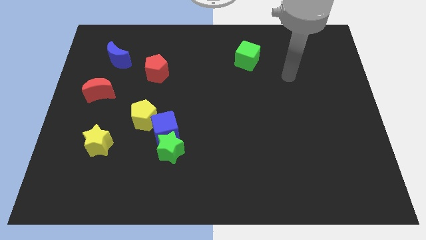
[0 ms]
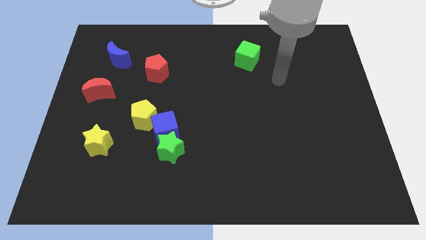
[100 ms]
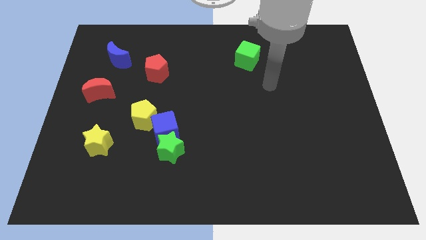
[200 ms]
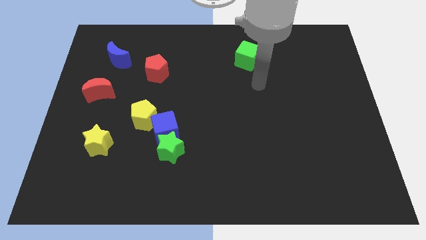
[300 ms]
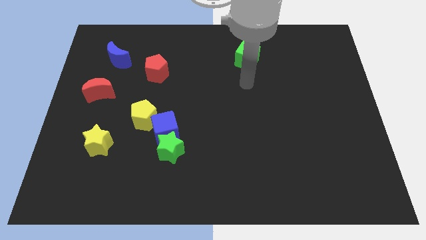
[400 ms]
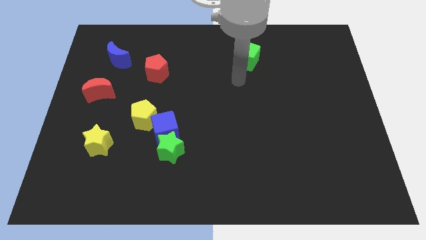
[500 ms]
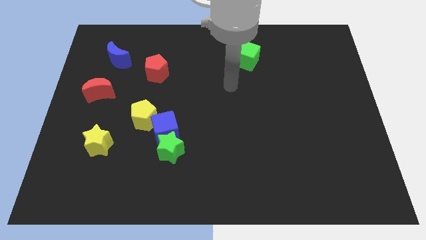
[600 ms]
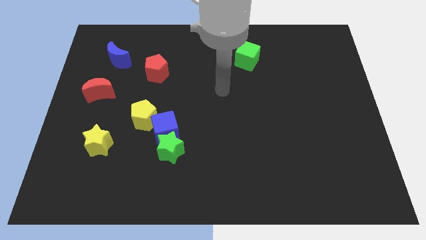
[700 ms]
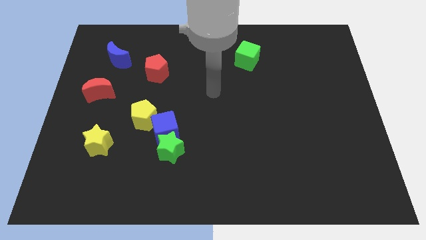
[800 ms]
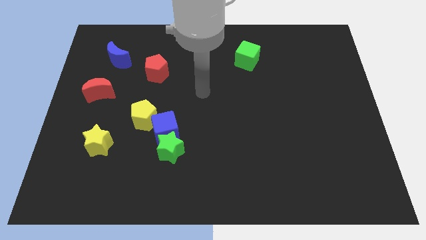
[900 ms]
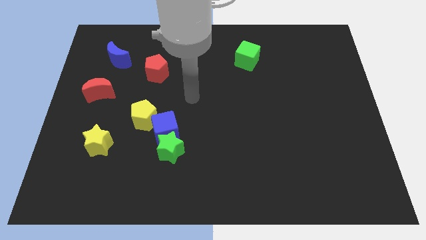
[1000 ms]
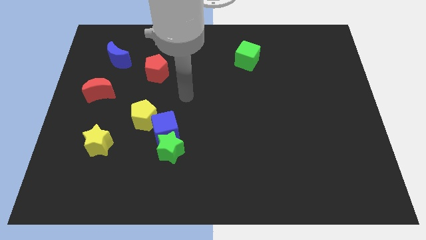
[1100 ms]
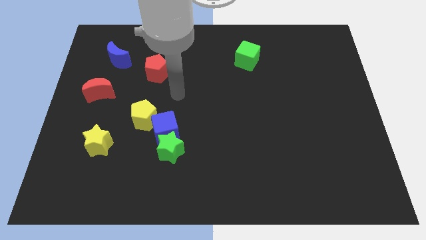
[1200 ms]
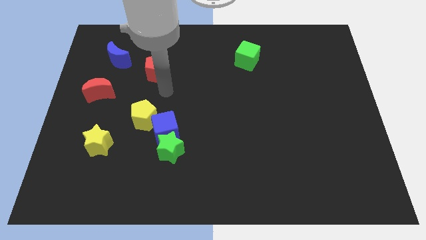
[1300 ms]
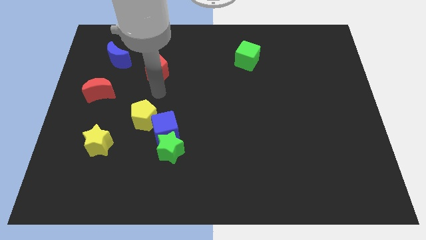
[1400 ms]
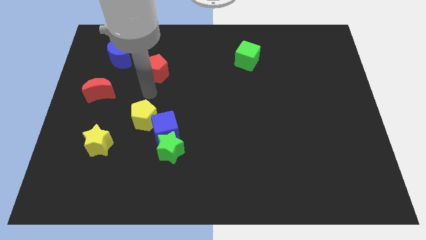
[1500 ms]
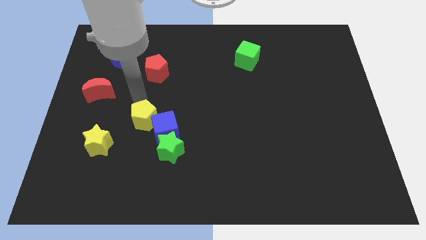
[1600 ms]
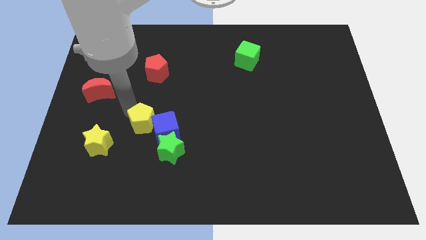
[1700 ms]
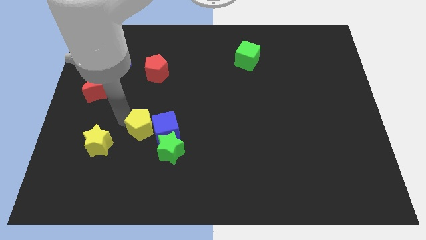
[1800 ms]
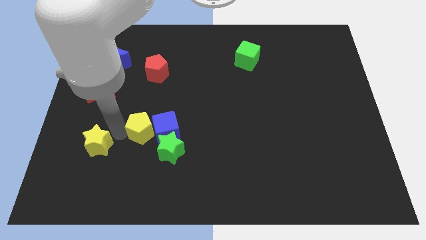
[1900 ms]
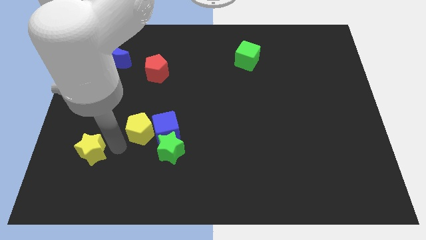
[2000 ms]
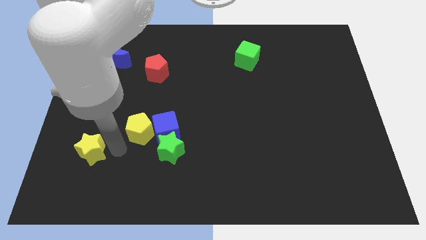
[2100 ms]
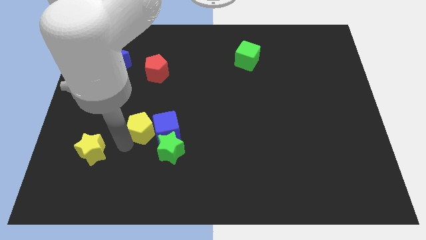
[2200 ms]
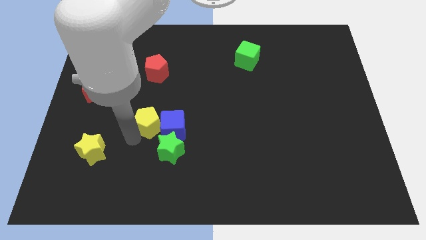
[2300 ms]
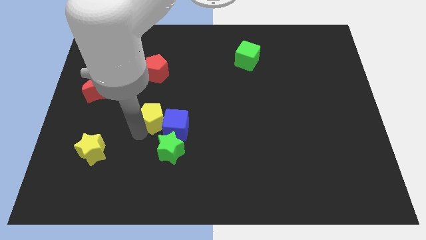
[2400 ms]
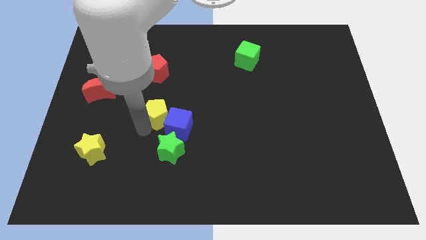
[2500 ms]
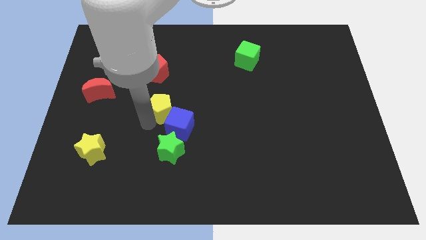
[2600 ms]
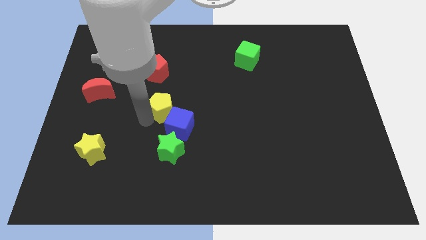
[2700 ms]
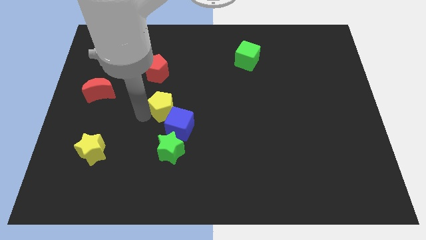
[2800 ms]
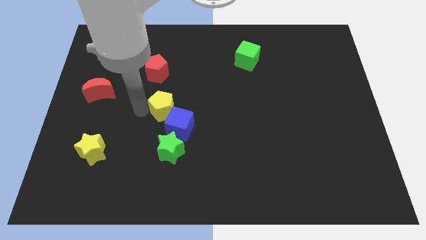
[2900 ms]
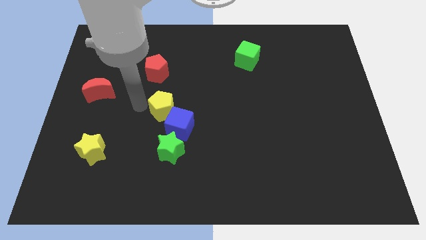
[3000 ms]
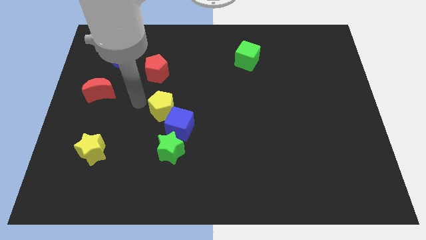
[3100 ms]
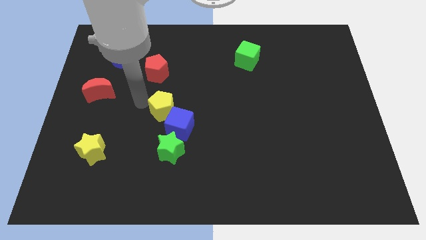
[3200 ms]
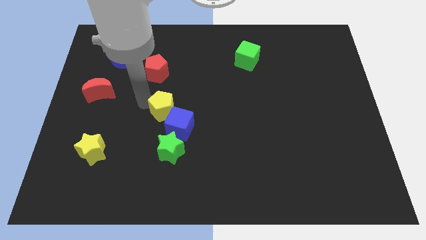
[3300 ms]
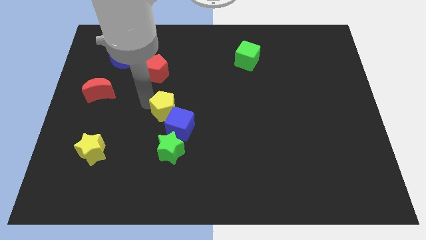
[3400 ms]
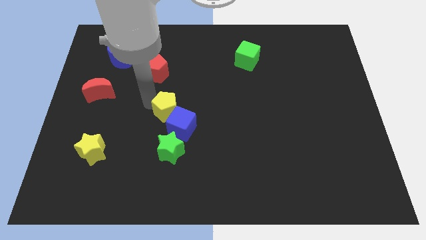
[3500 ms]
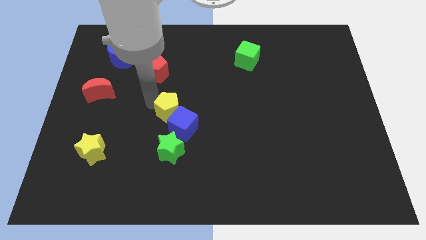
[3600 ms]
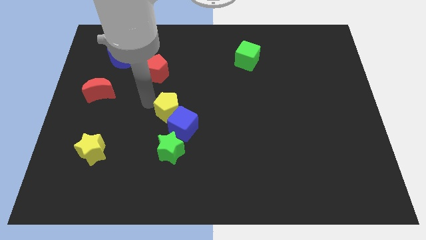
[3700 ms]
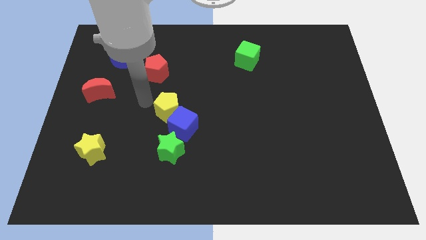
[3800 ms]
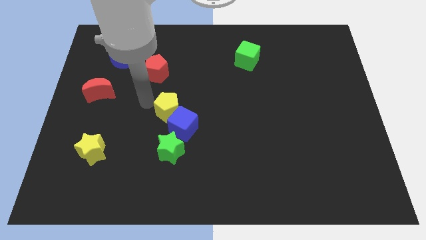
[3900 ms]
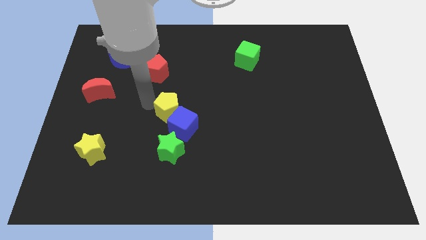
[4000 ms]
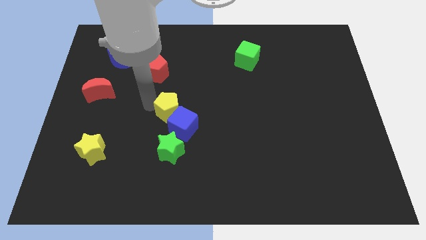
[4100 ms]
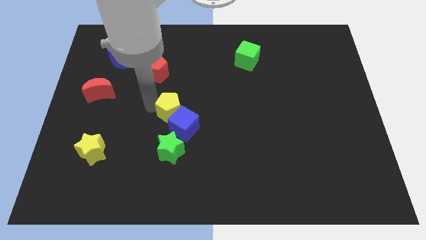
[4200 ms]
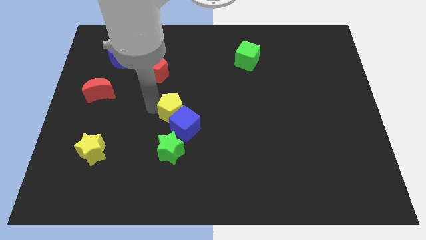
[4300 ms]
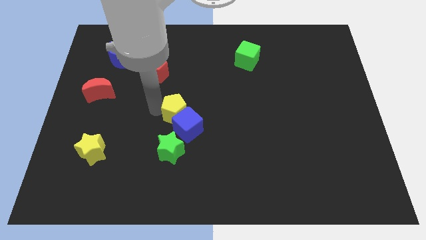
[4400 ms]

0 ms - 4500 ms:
move the yellow pentagon to the right a little

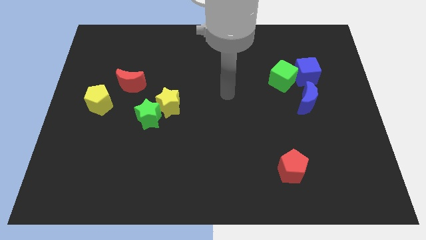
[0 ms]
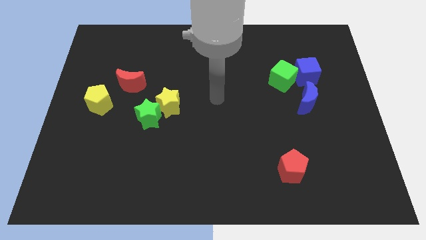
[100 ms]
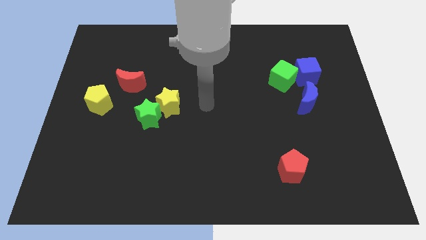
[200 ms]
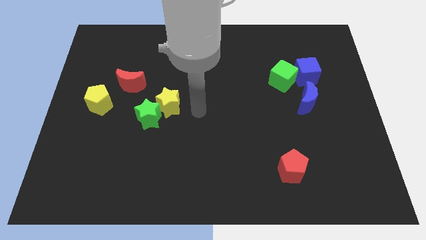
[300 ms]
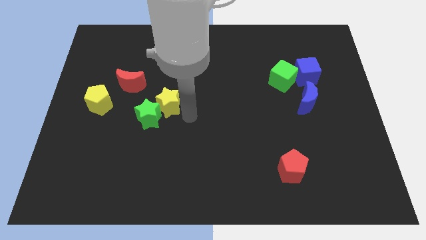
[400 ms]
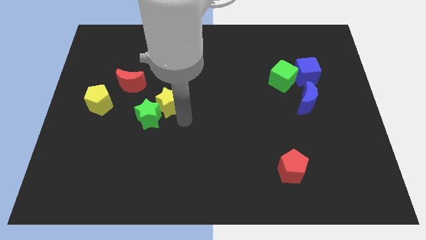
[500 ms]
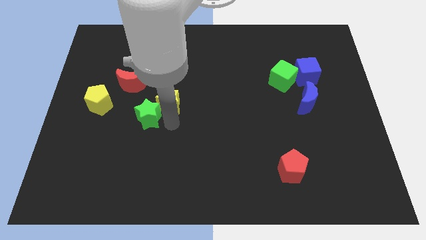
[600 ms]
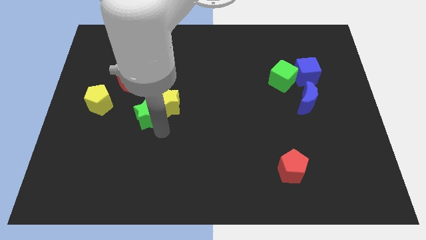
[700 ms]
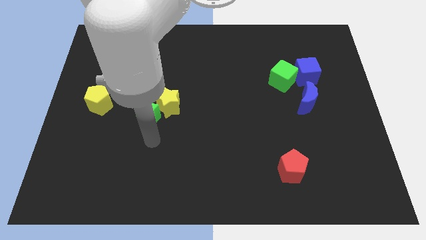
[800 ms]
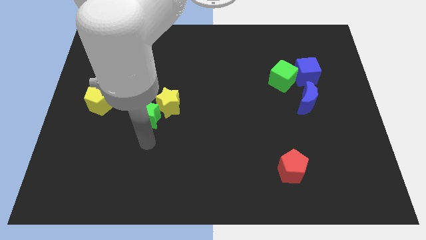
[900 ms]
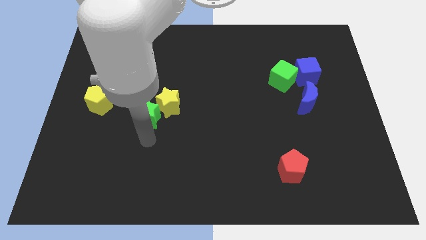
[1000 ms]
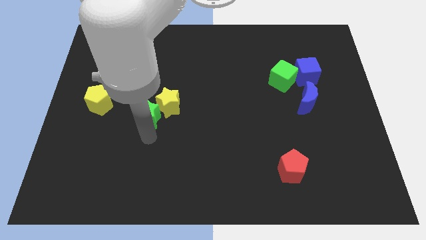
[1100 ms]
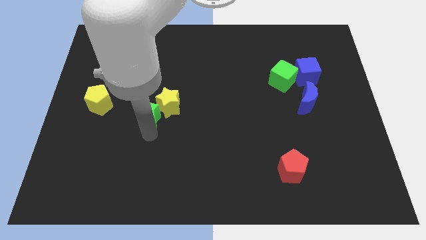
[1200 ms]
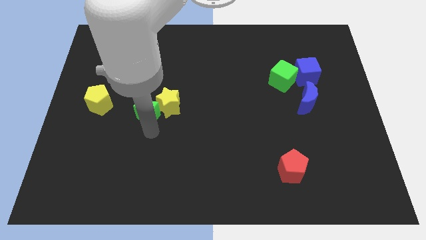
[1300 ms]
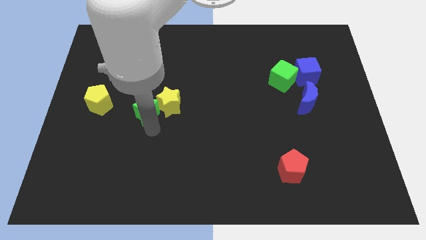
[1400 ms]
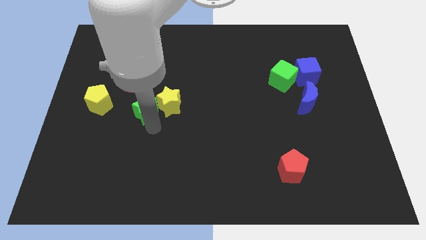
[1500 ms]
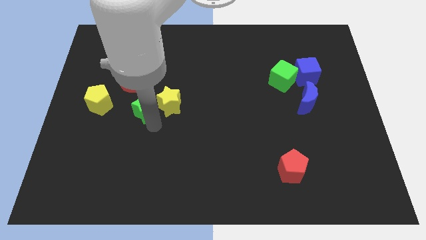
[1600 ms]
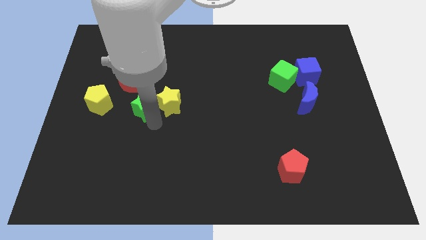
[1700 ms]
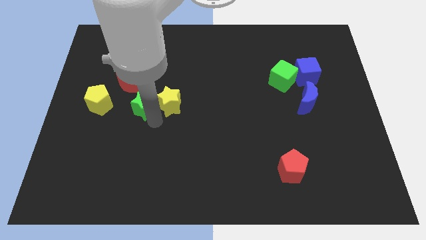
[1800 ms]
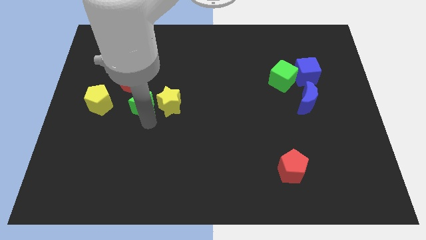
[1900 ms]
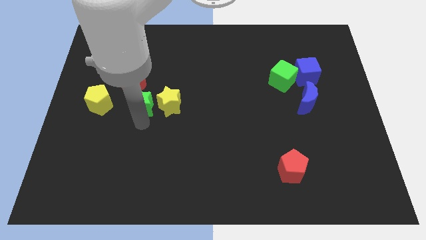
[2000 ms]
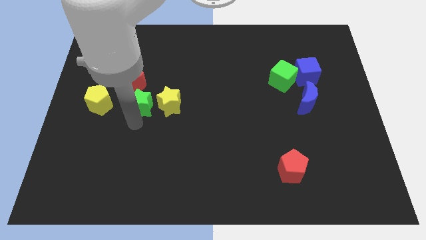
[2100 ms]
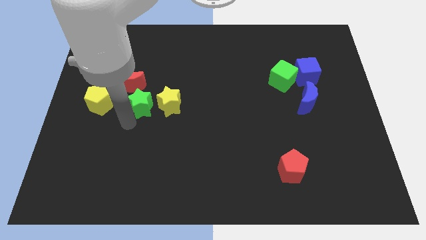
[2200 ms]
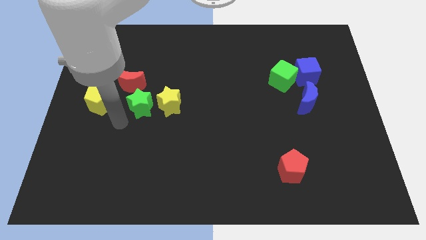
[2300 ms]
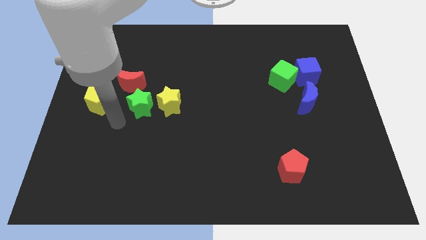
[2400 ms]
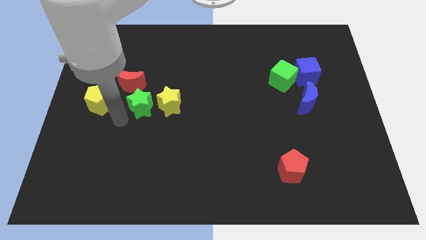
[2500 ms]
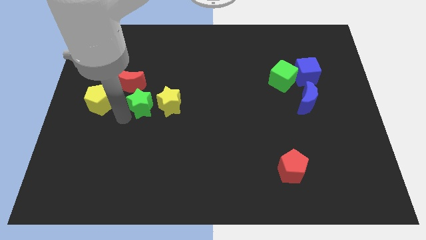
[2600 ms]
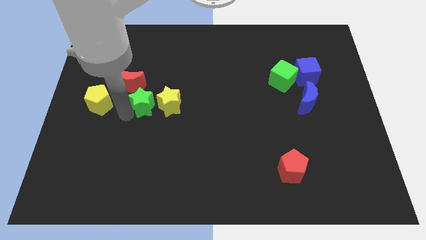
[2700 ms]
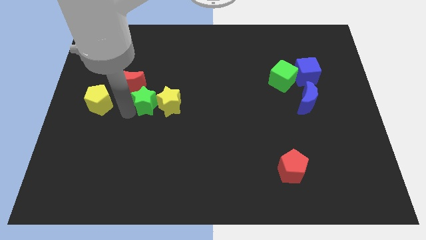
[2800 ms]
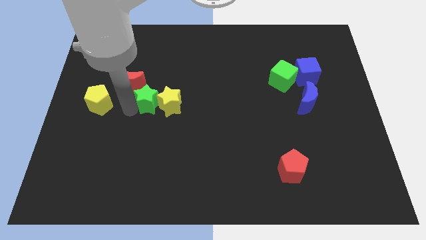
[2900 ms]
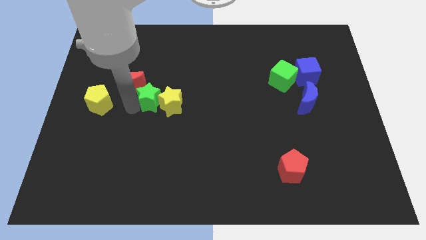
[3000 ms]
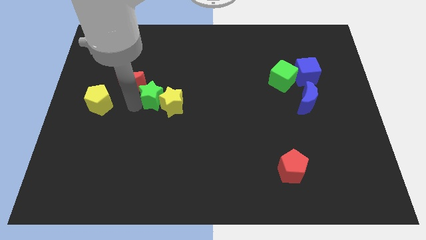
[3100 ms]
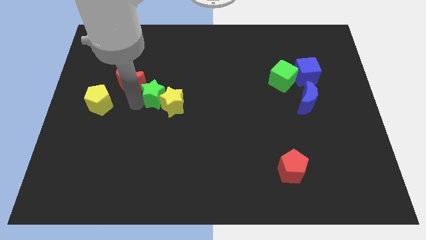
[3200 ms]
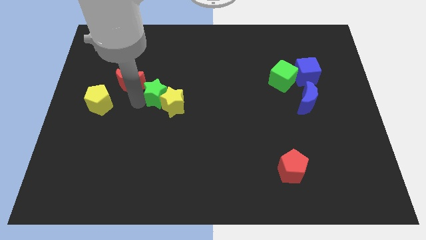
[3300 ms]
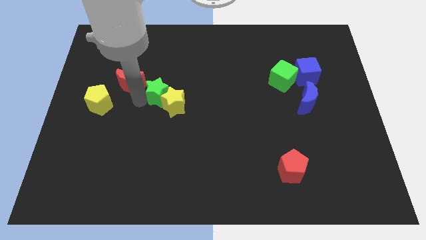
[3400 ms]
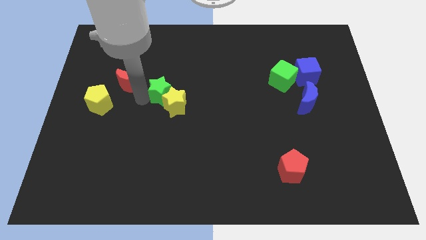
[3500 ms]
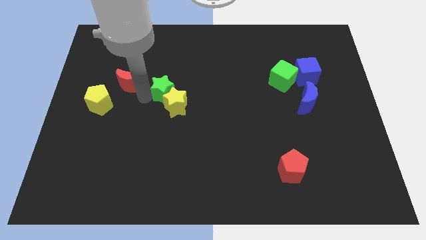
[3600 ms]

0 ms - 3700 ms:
slide the green star diagonally up and to the right a little
